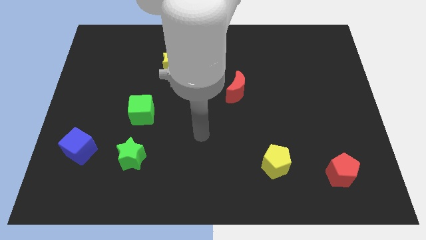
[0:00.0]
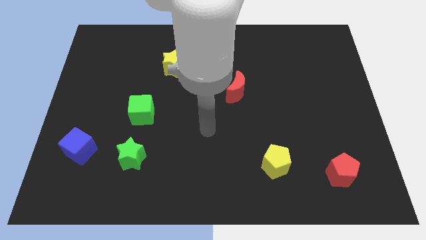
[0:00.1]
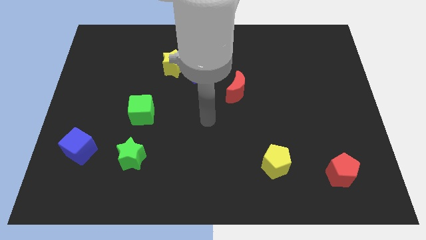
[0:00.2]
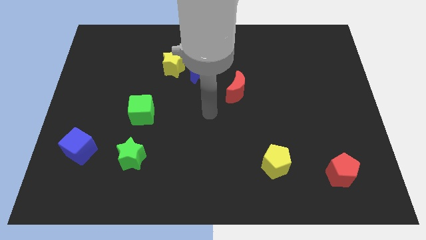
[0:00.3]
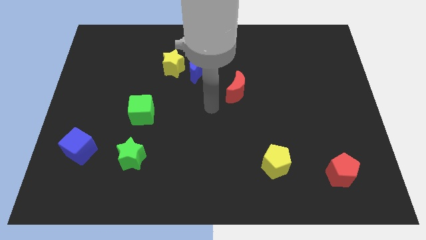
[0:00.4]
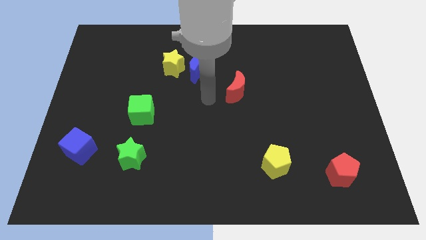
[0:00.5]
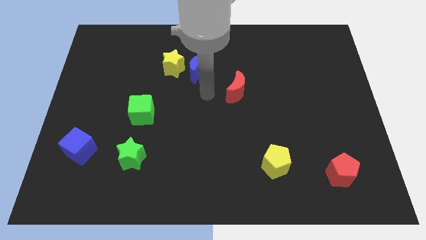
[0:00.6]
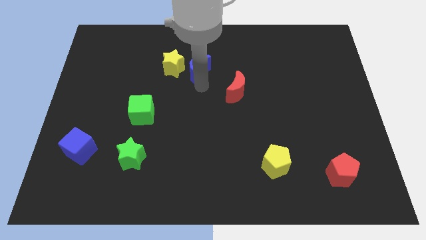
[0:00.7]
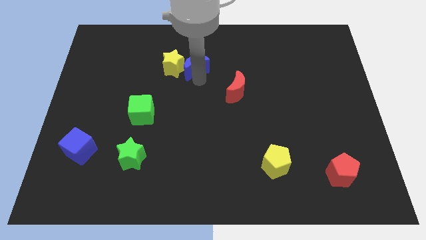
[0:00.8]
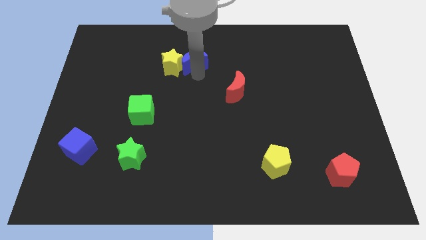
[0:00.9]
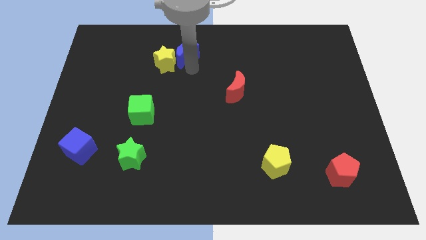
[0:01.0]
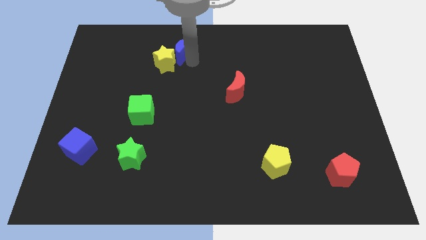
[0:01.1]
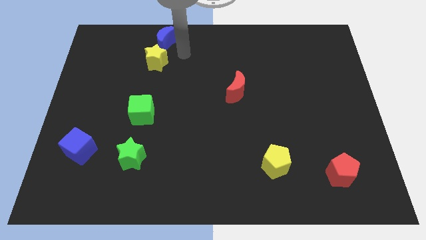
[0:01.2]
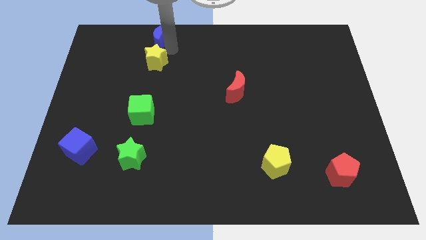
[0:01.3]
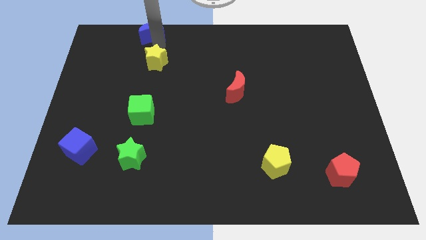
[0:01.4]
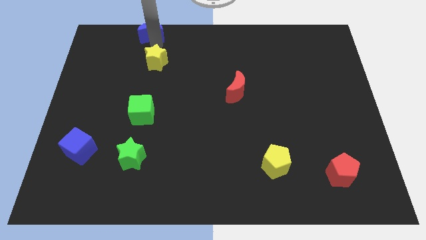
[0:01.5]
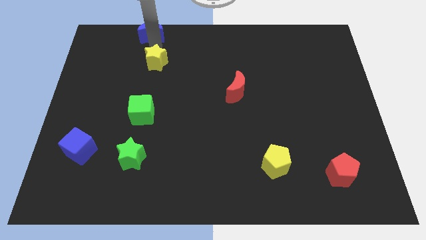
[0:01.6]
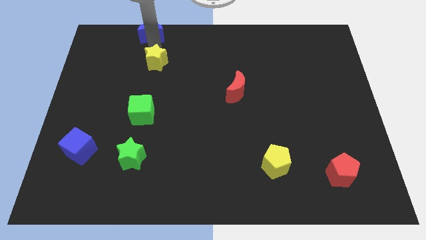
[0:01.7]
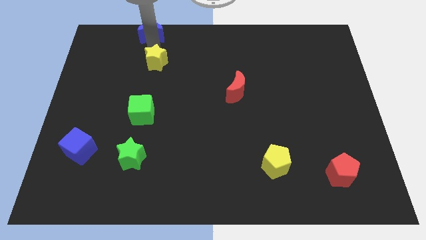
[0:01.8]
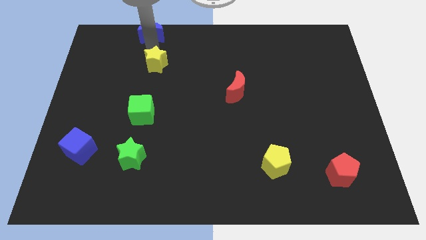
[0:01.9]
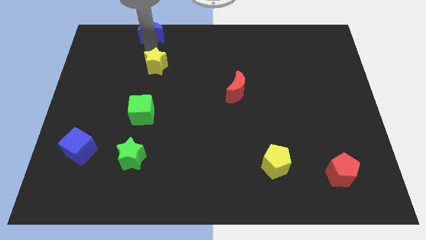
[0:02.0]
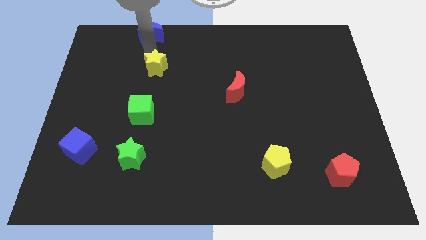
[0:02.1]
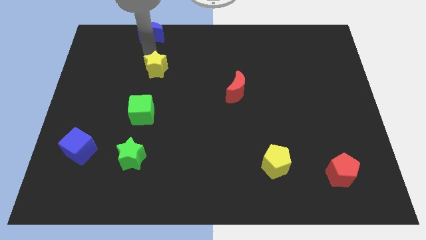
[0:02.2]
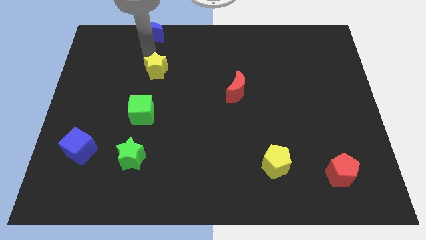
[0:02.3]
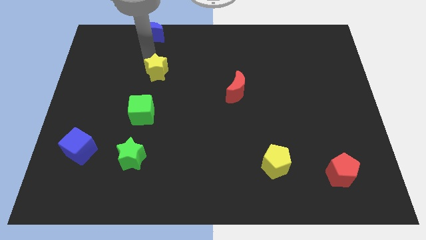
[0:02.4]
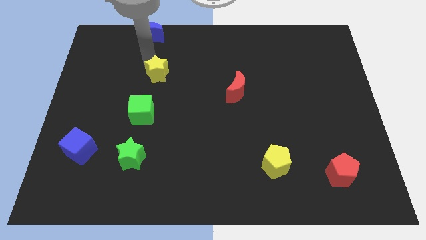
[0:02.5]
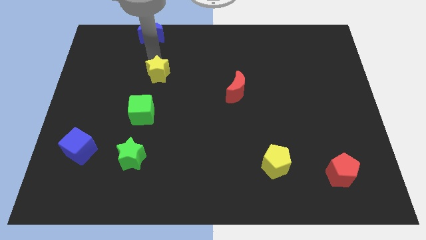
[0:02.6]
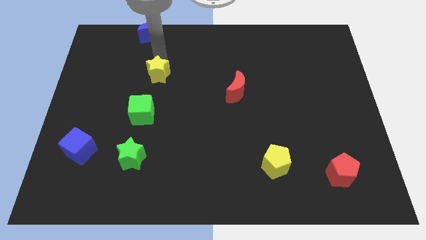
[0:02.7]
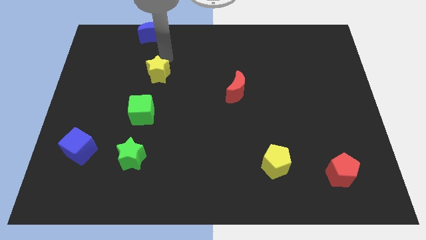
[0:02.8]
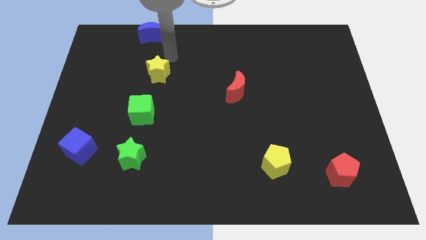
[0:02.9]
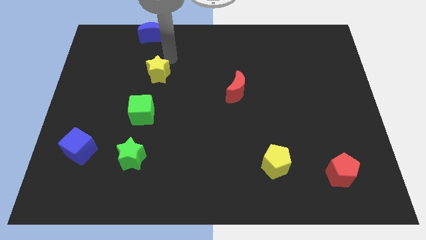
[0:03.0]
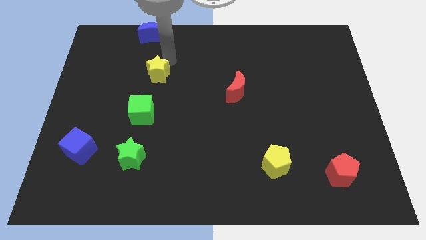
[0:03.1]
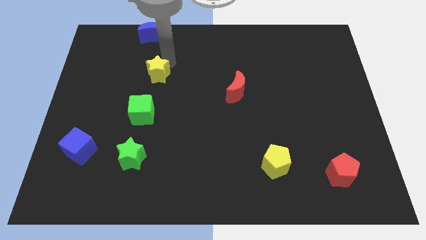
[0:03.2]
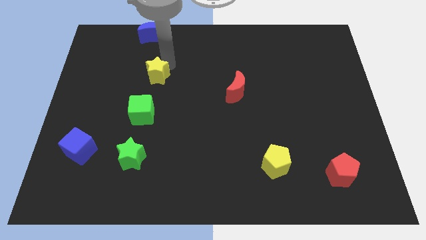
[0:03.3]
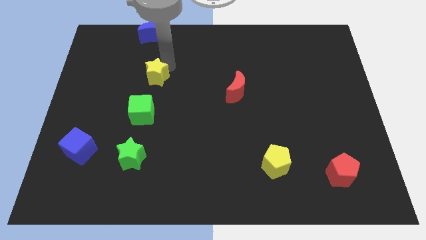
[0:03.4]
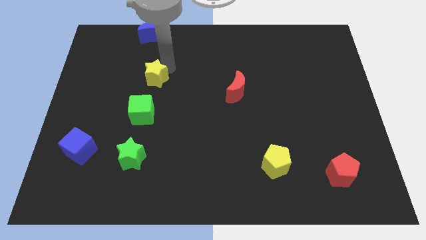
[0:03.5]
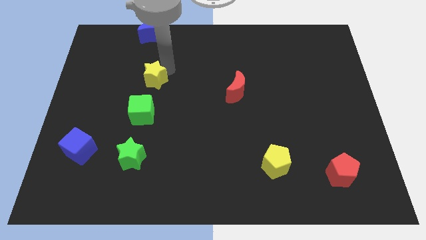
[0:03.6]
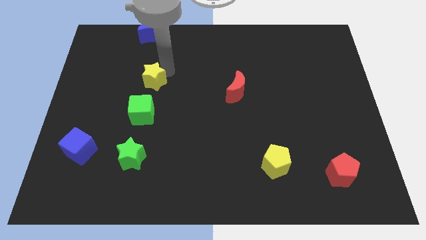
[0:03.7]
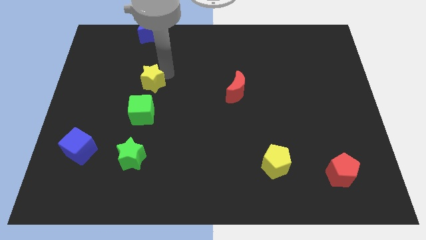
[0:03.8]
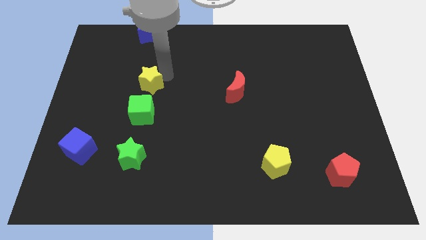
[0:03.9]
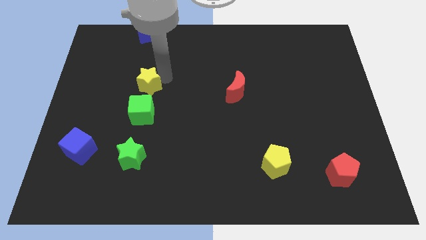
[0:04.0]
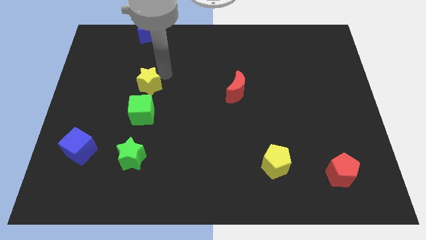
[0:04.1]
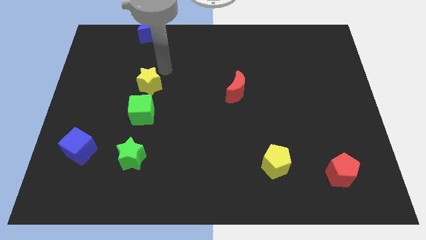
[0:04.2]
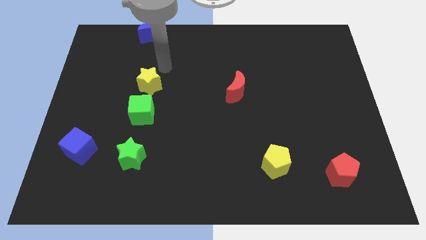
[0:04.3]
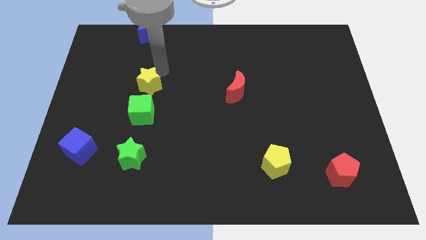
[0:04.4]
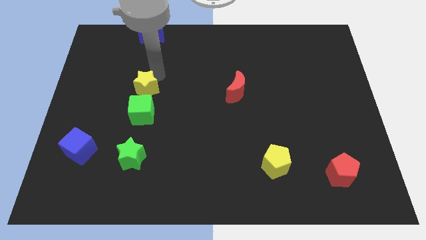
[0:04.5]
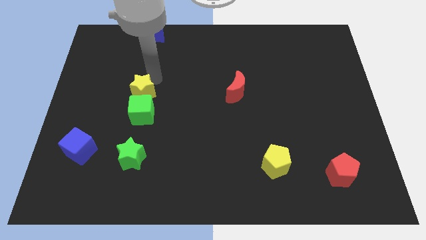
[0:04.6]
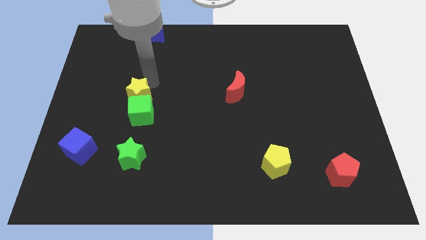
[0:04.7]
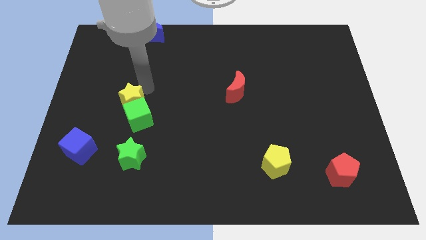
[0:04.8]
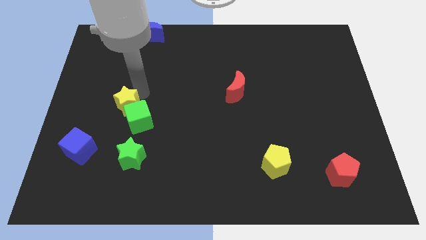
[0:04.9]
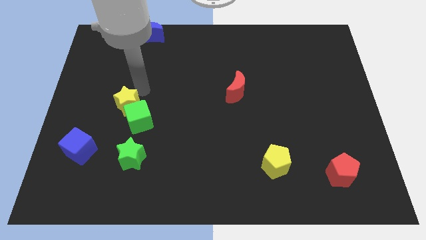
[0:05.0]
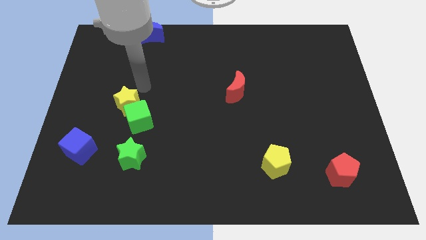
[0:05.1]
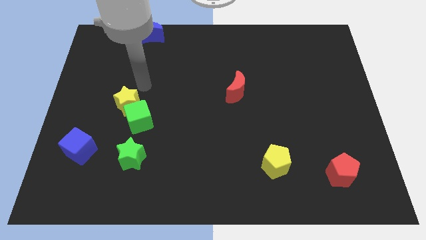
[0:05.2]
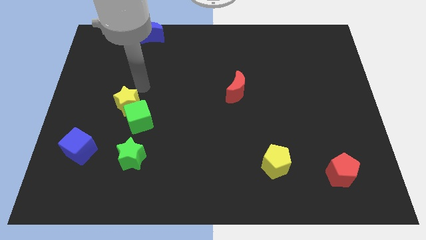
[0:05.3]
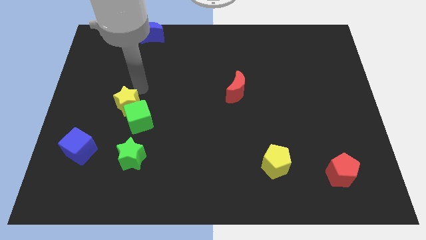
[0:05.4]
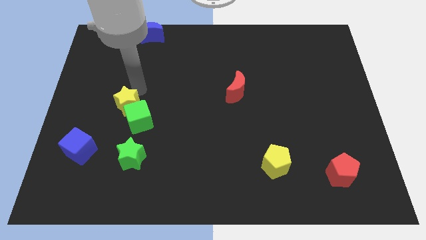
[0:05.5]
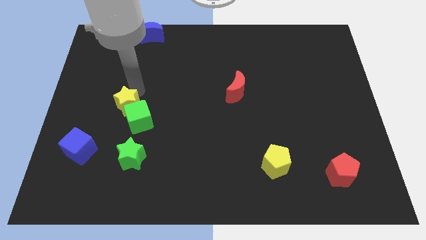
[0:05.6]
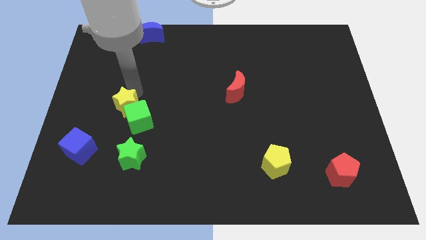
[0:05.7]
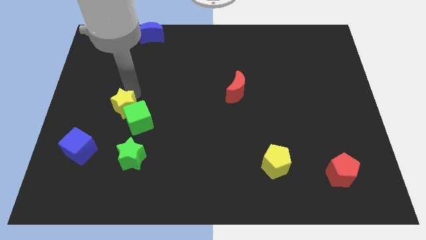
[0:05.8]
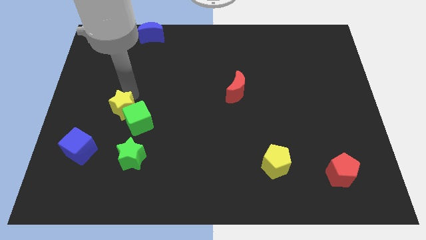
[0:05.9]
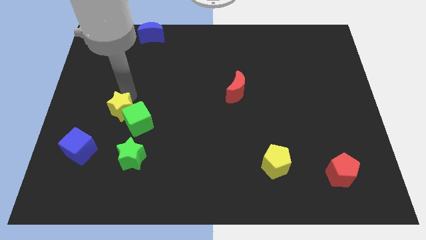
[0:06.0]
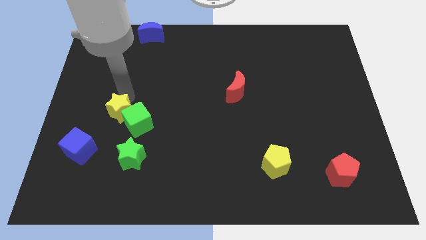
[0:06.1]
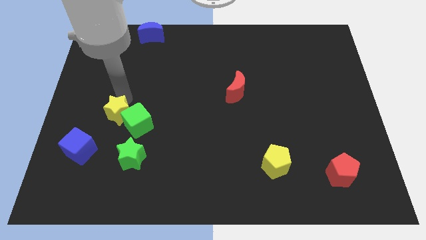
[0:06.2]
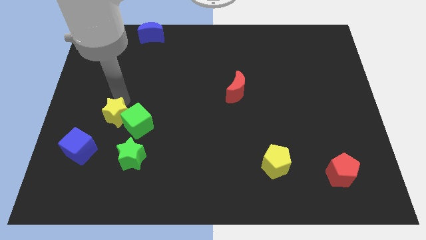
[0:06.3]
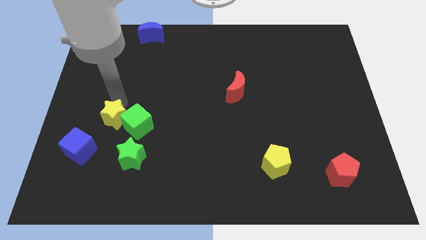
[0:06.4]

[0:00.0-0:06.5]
move the yellow star diagonally up and to the left of the green star

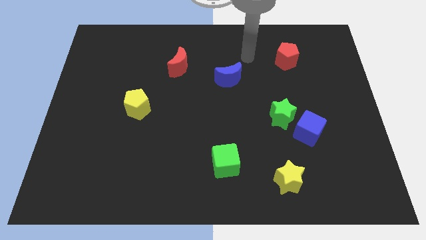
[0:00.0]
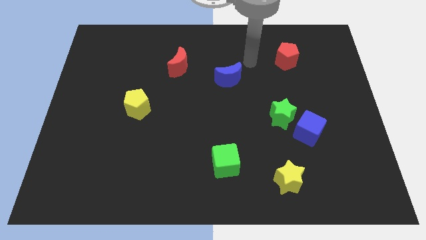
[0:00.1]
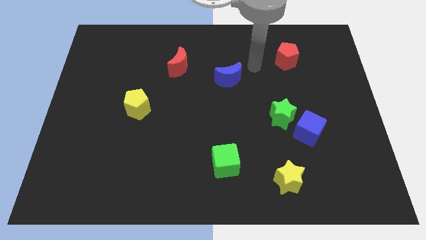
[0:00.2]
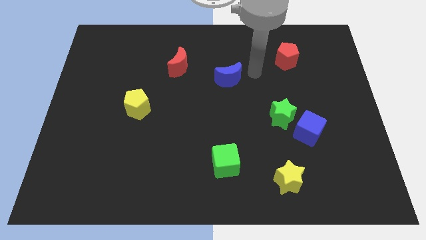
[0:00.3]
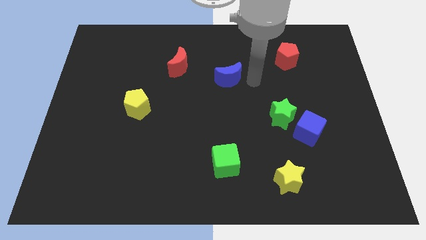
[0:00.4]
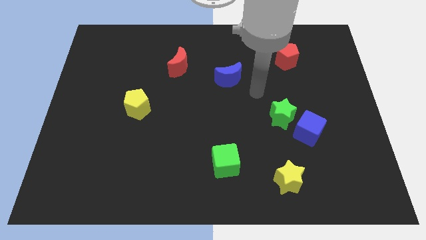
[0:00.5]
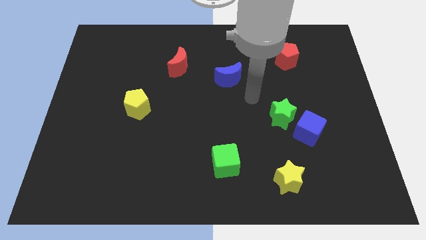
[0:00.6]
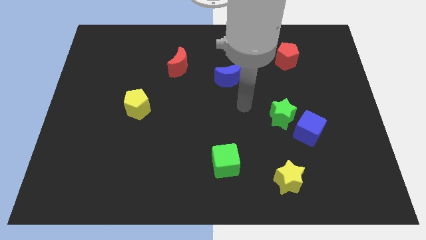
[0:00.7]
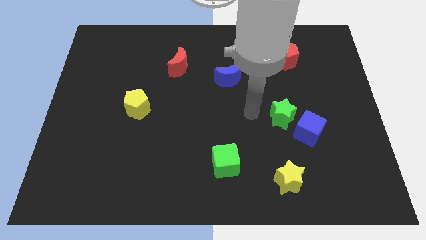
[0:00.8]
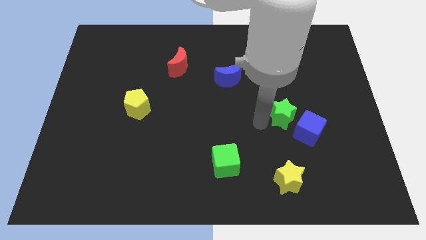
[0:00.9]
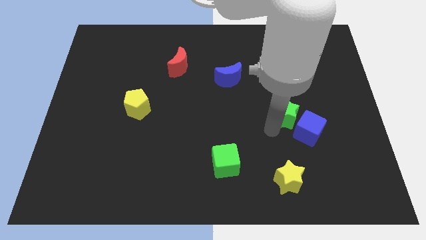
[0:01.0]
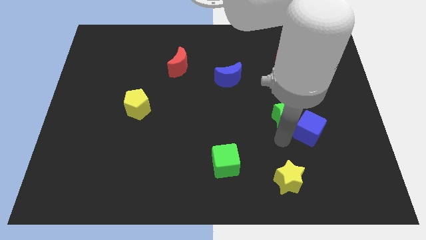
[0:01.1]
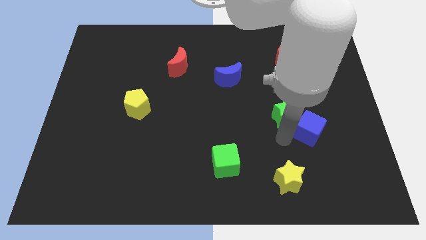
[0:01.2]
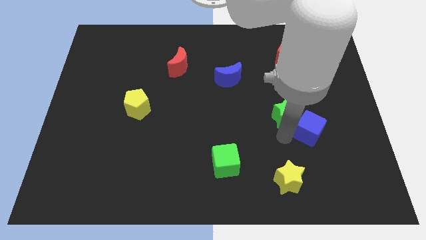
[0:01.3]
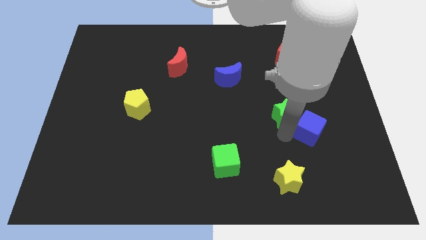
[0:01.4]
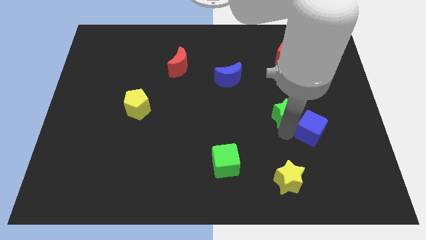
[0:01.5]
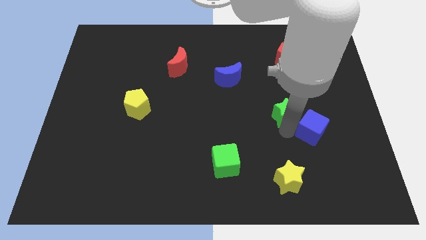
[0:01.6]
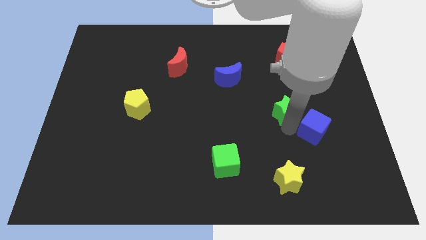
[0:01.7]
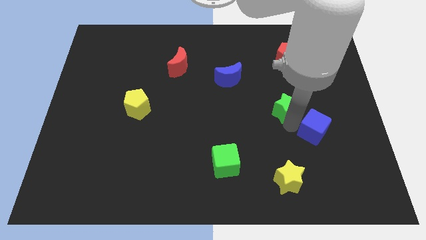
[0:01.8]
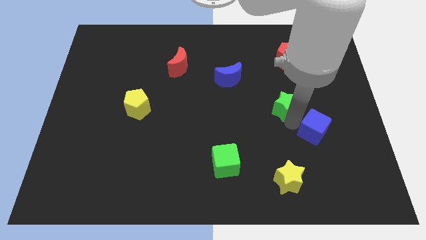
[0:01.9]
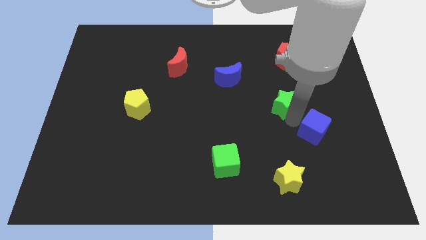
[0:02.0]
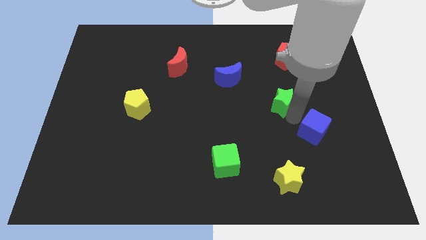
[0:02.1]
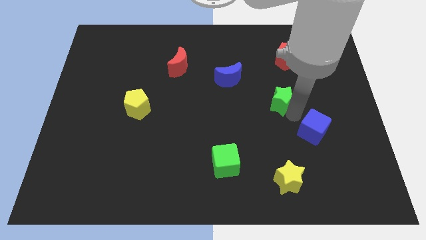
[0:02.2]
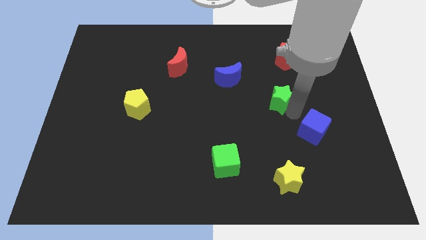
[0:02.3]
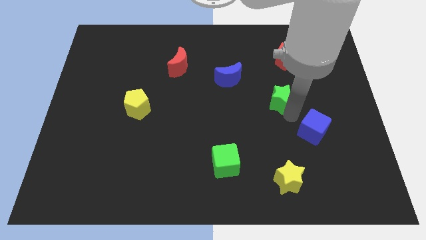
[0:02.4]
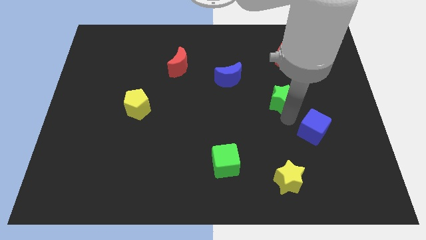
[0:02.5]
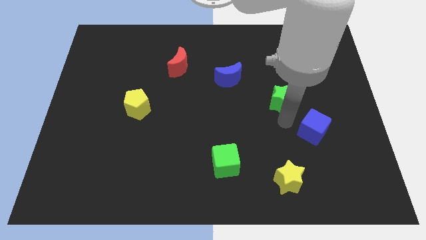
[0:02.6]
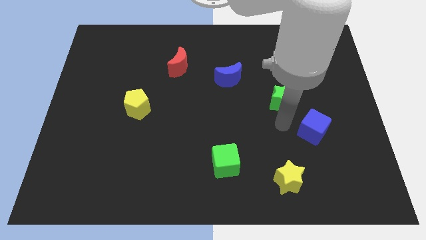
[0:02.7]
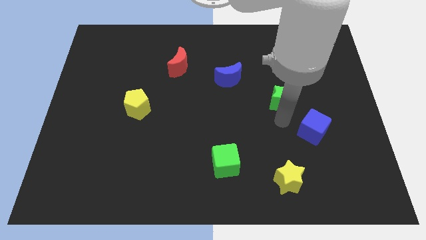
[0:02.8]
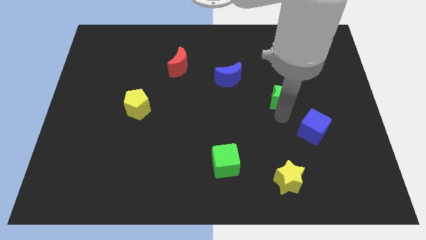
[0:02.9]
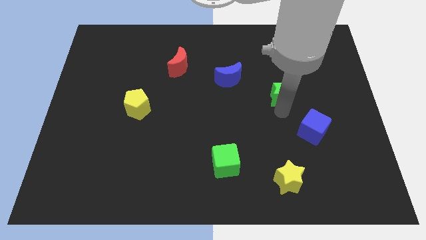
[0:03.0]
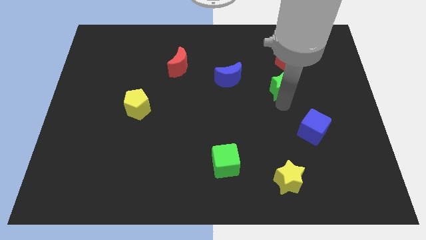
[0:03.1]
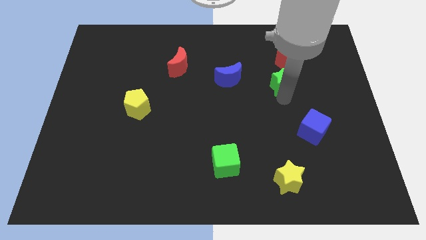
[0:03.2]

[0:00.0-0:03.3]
move the green star to the bottom left side of the red pentagon
